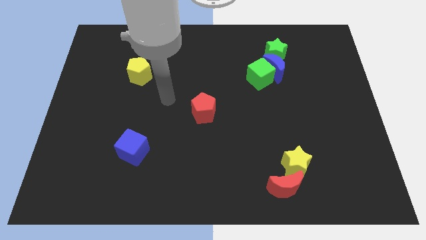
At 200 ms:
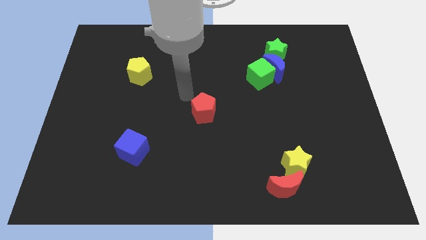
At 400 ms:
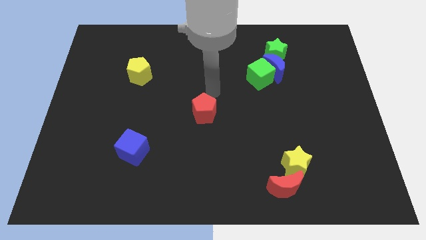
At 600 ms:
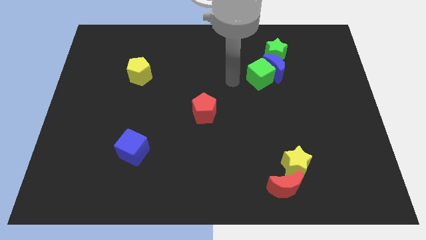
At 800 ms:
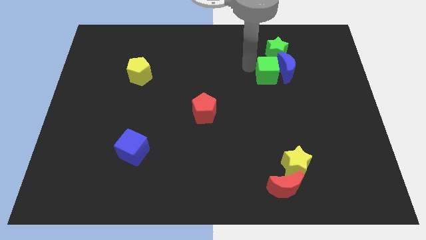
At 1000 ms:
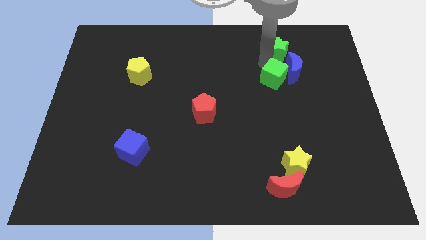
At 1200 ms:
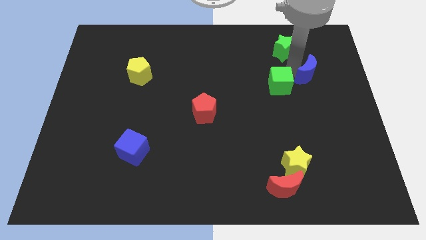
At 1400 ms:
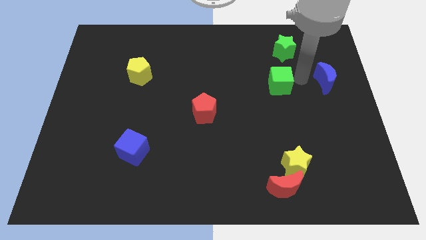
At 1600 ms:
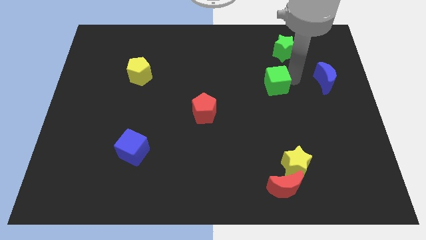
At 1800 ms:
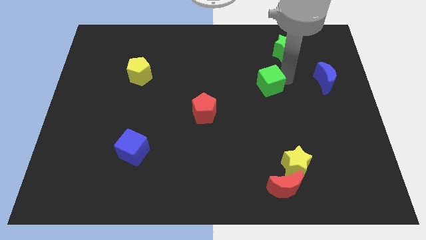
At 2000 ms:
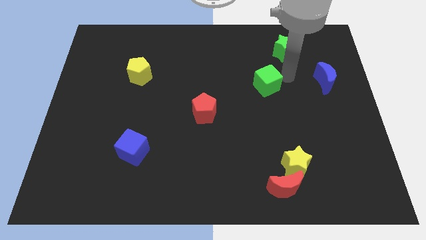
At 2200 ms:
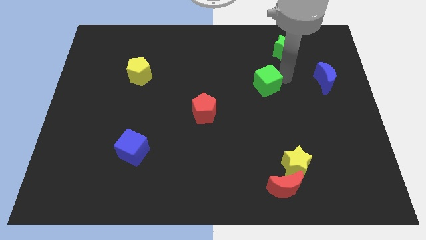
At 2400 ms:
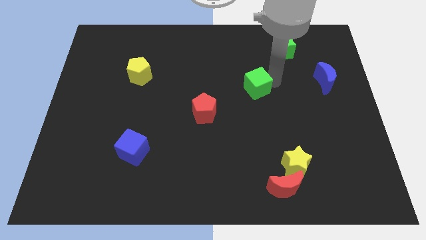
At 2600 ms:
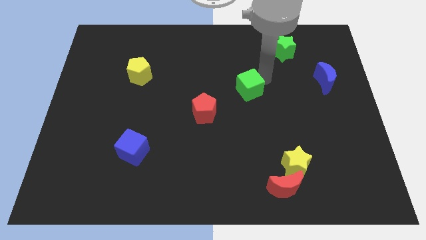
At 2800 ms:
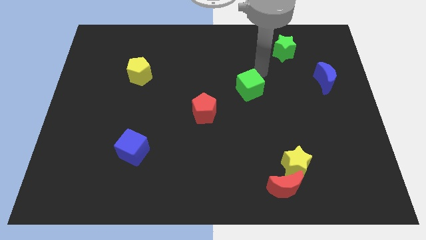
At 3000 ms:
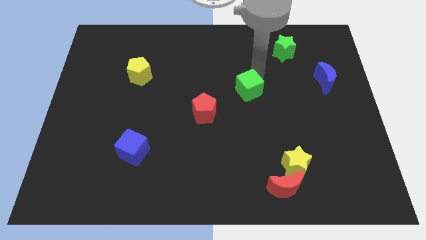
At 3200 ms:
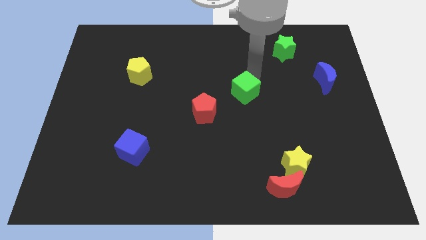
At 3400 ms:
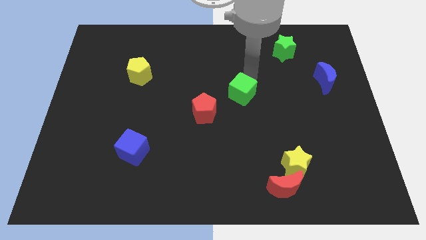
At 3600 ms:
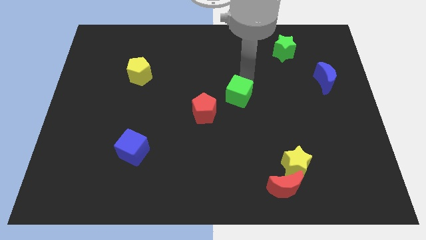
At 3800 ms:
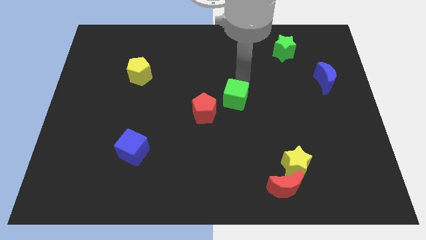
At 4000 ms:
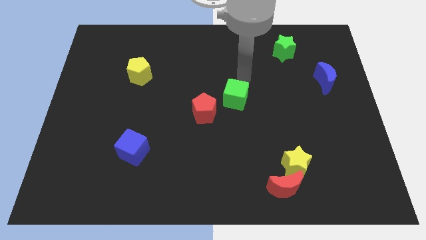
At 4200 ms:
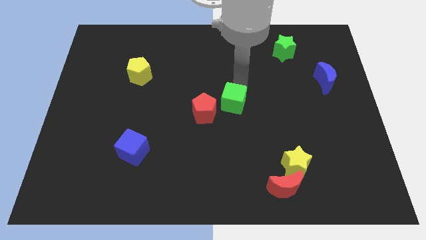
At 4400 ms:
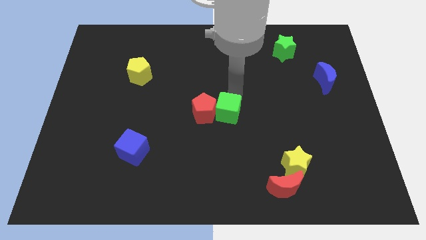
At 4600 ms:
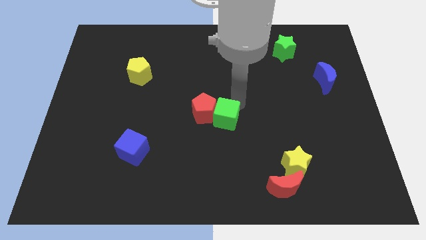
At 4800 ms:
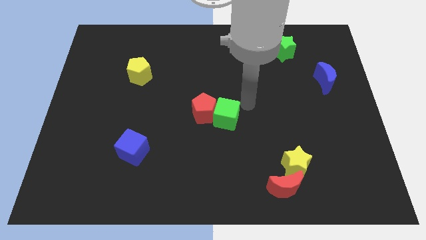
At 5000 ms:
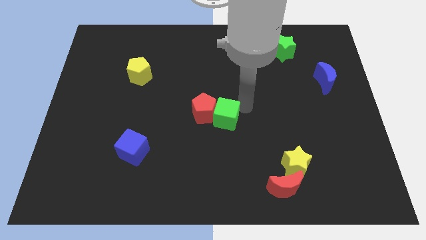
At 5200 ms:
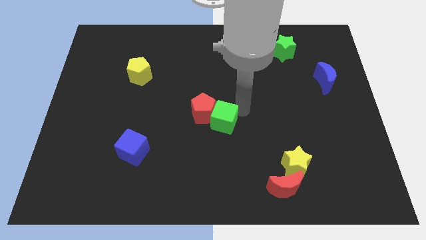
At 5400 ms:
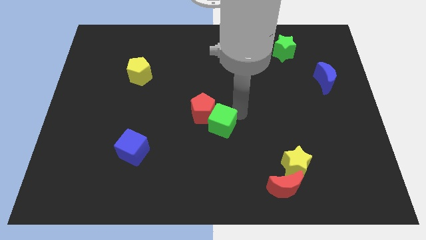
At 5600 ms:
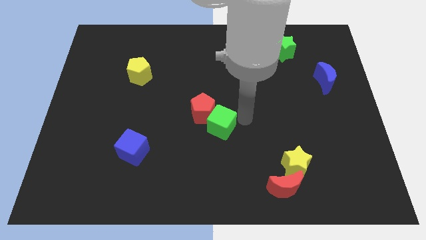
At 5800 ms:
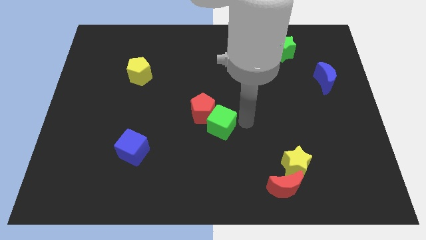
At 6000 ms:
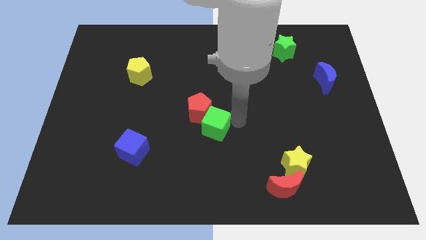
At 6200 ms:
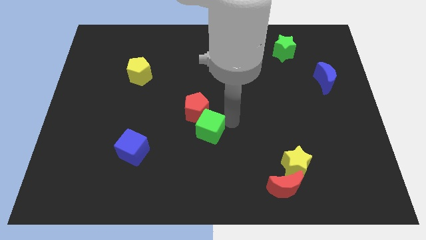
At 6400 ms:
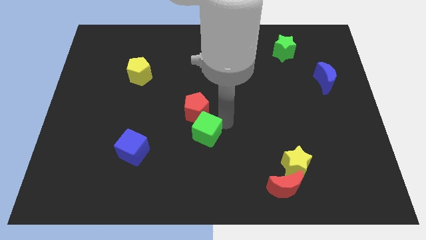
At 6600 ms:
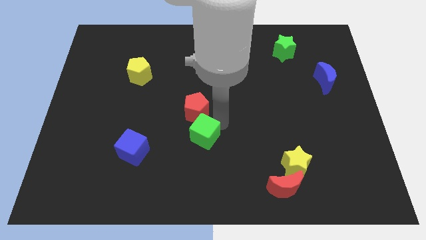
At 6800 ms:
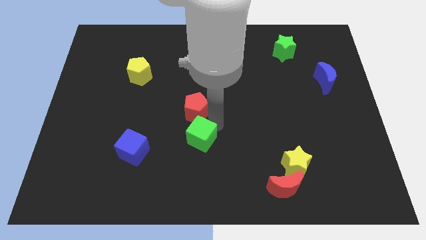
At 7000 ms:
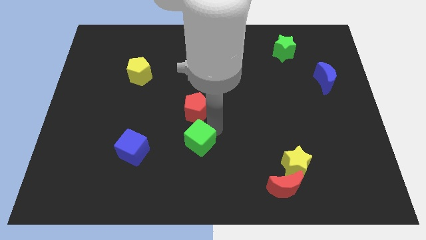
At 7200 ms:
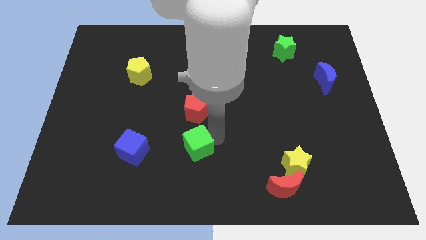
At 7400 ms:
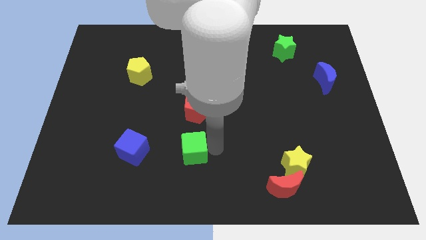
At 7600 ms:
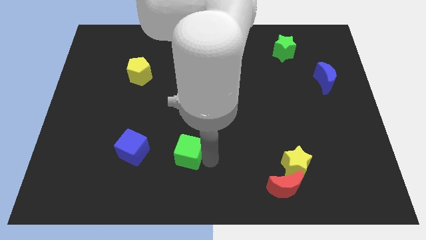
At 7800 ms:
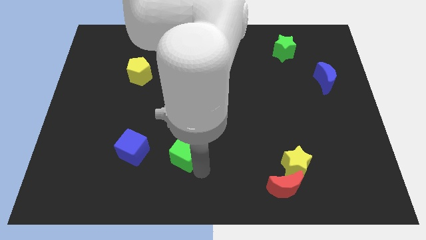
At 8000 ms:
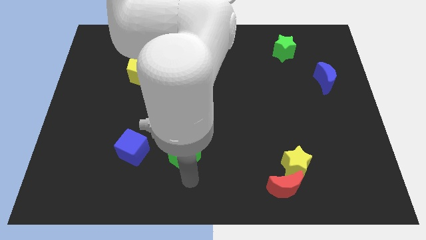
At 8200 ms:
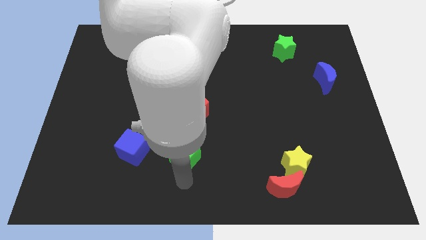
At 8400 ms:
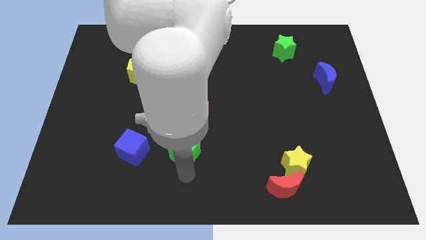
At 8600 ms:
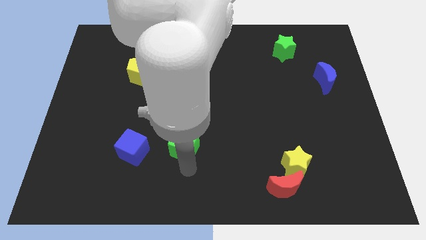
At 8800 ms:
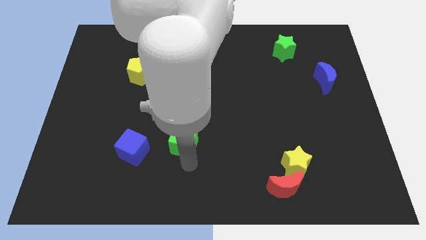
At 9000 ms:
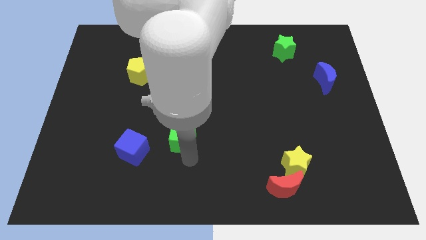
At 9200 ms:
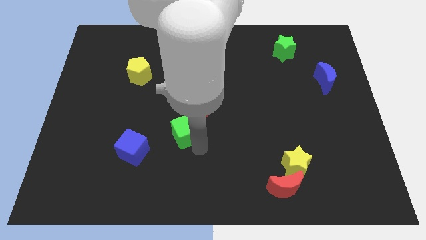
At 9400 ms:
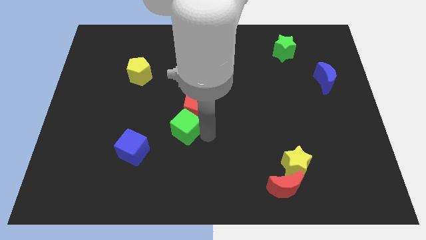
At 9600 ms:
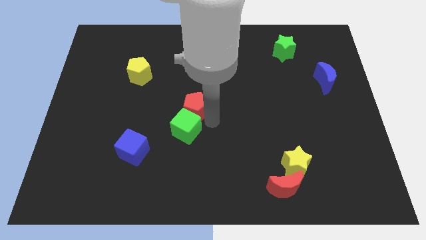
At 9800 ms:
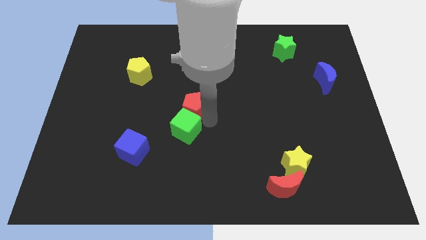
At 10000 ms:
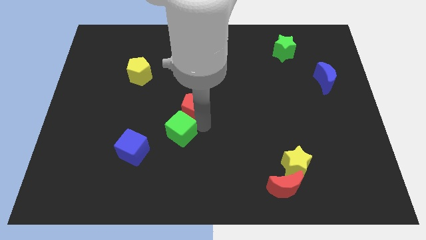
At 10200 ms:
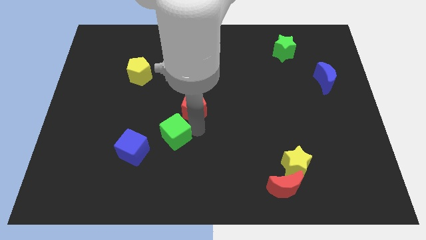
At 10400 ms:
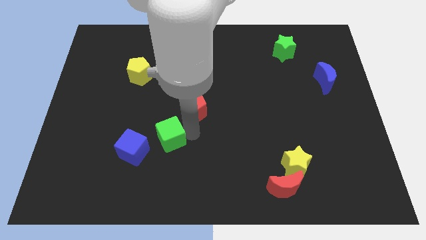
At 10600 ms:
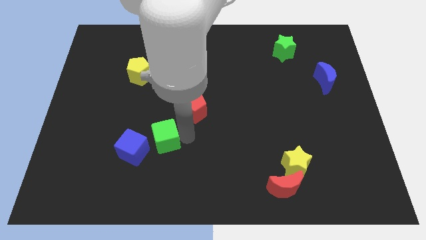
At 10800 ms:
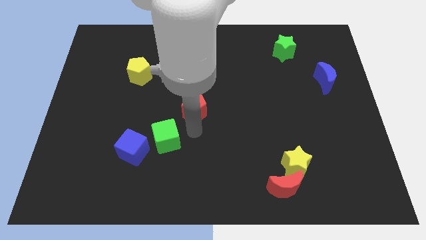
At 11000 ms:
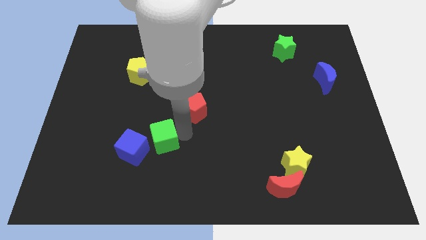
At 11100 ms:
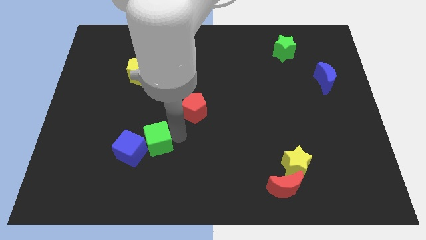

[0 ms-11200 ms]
move the green cube to the blue cube

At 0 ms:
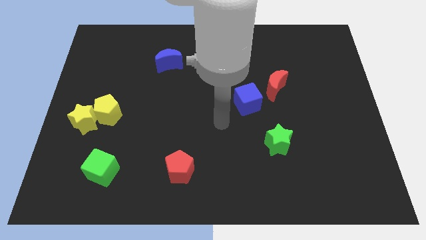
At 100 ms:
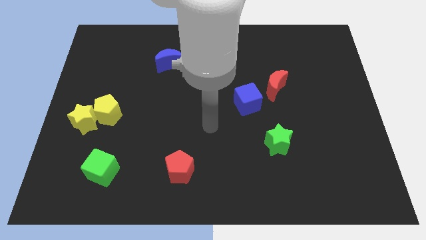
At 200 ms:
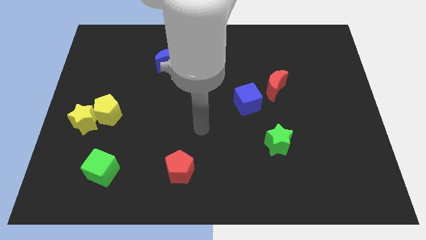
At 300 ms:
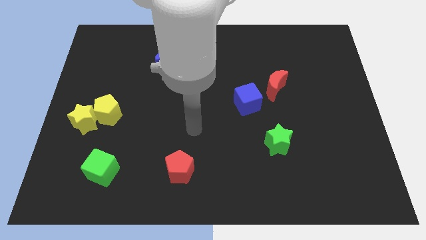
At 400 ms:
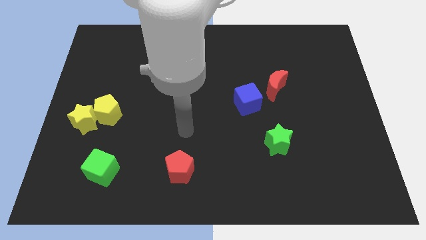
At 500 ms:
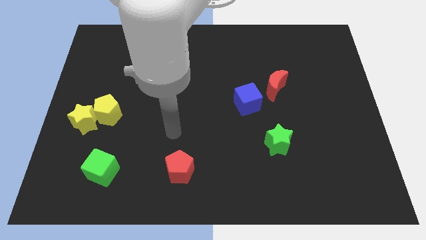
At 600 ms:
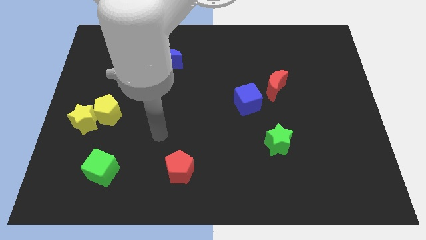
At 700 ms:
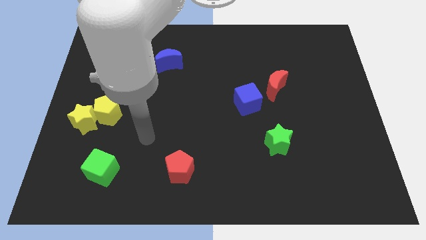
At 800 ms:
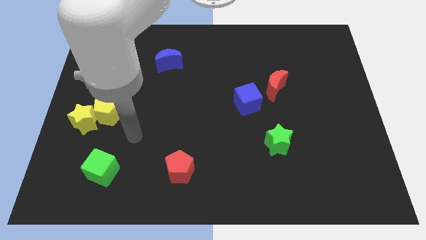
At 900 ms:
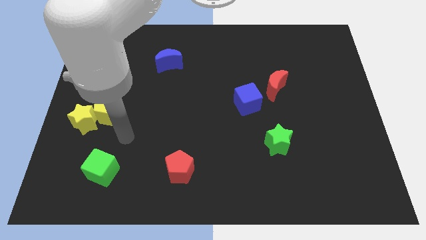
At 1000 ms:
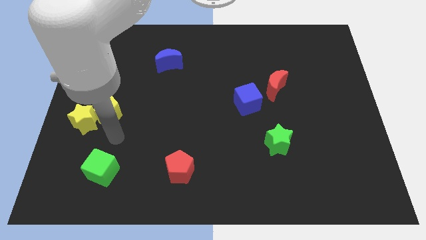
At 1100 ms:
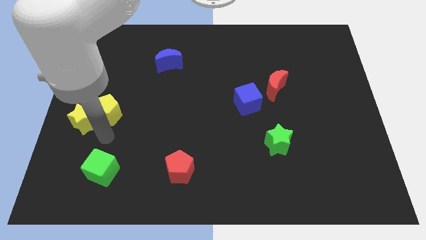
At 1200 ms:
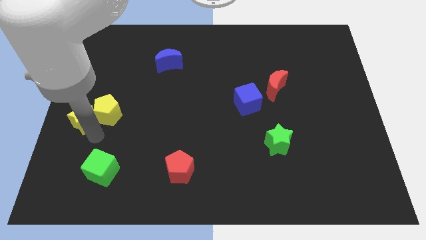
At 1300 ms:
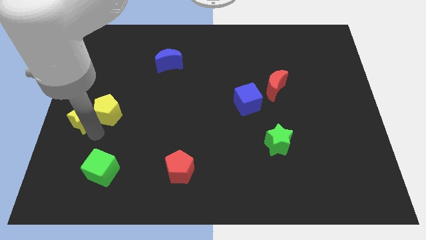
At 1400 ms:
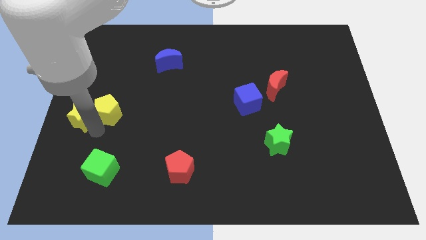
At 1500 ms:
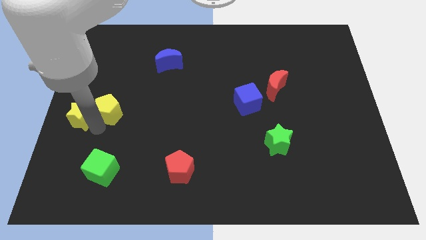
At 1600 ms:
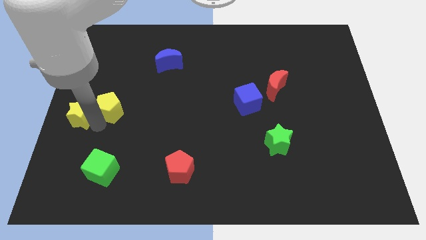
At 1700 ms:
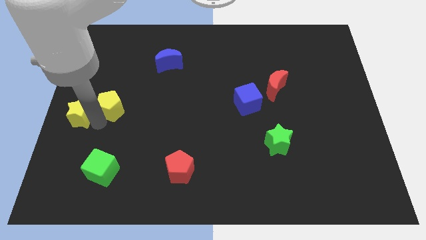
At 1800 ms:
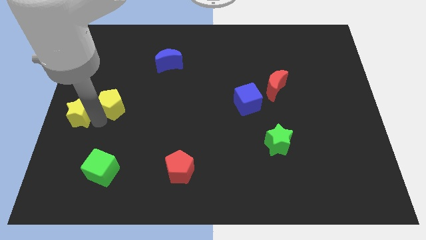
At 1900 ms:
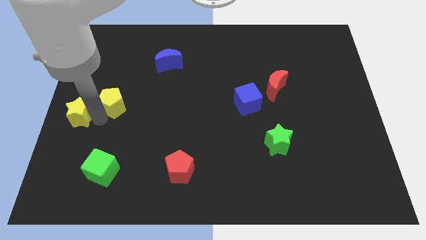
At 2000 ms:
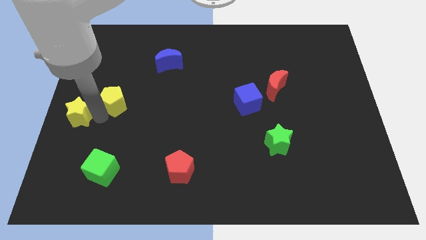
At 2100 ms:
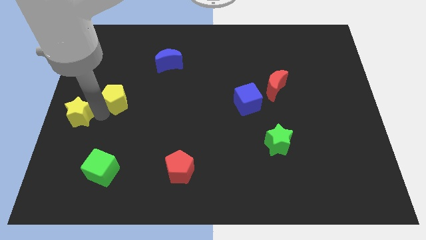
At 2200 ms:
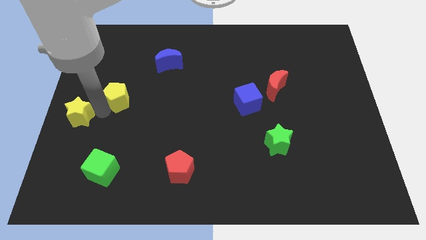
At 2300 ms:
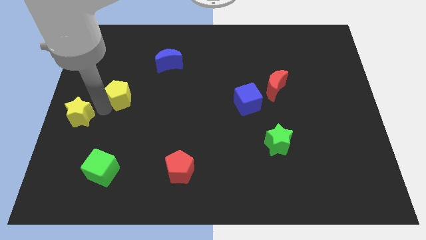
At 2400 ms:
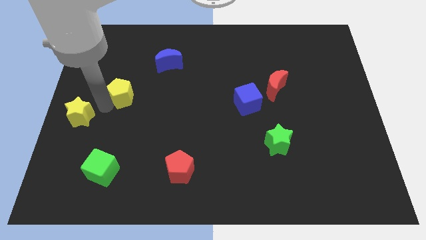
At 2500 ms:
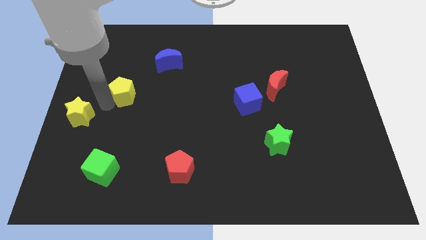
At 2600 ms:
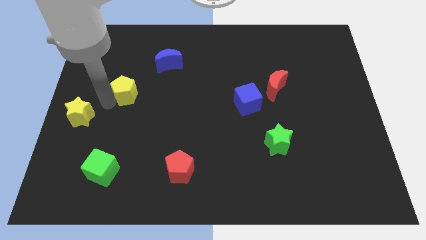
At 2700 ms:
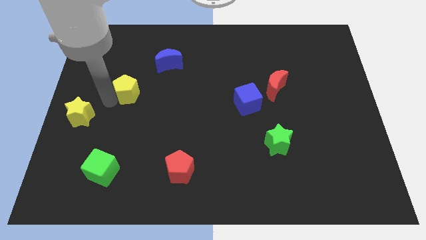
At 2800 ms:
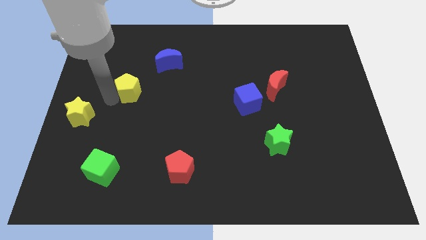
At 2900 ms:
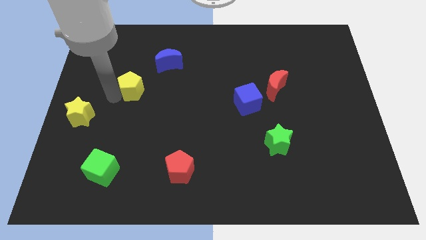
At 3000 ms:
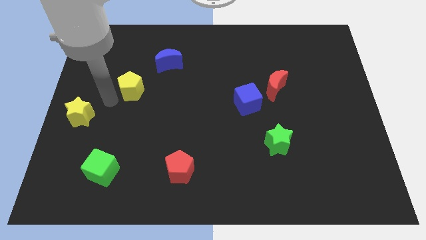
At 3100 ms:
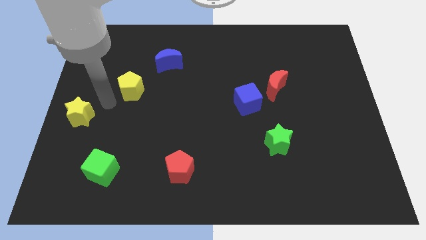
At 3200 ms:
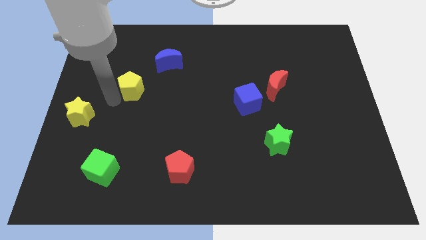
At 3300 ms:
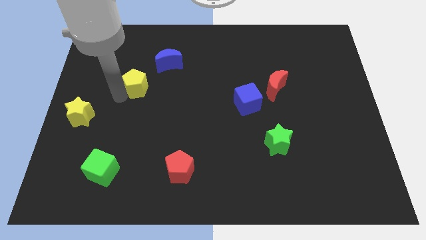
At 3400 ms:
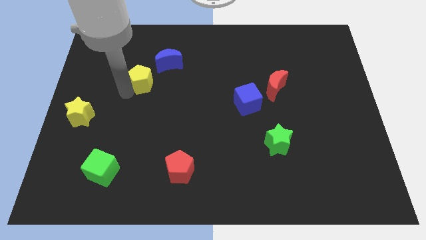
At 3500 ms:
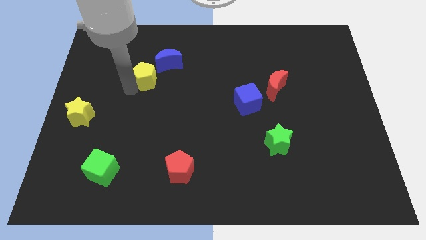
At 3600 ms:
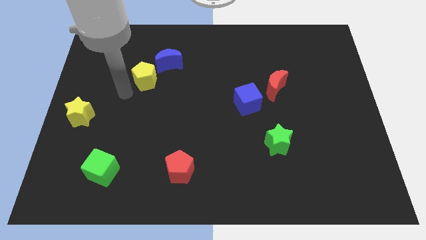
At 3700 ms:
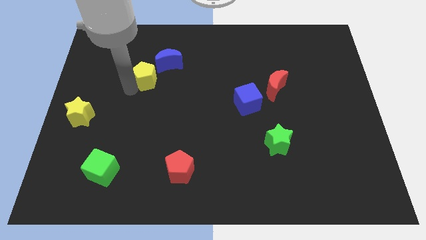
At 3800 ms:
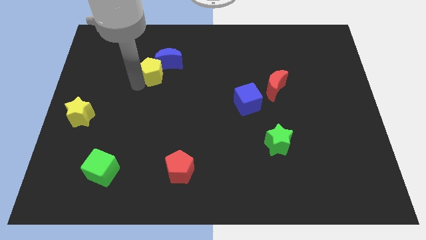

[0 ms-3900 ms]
move the yellow pentagon next to the blue moon
